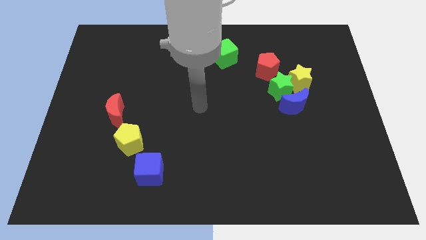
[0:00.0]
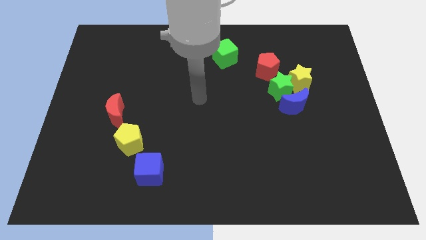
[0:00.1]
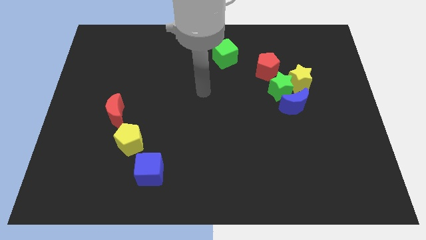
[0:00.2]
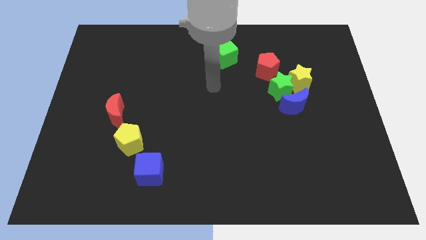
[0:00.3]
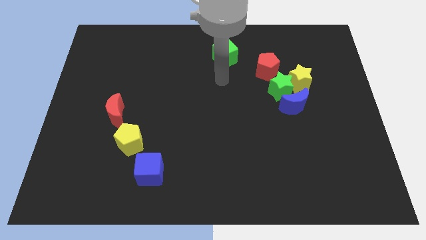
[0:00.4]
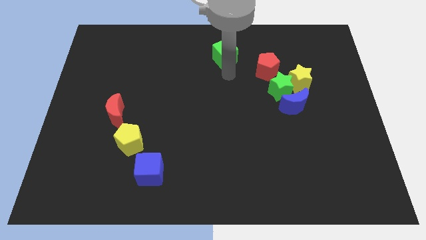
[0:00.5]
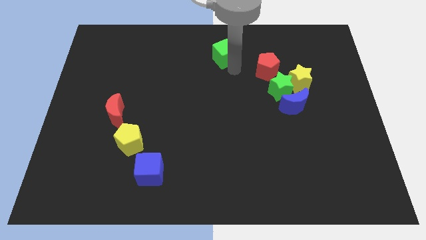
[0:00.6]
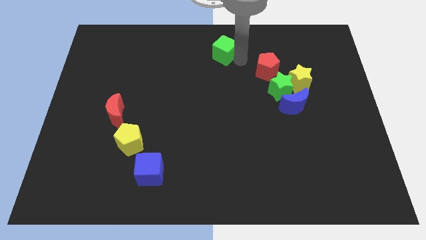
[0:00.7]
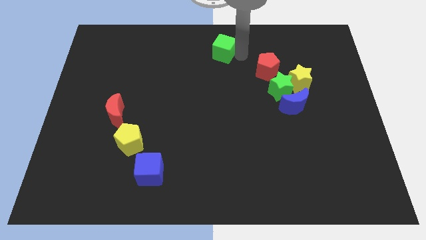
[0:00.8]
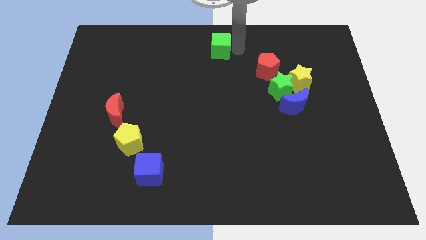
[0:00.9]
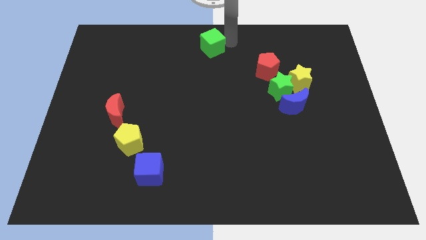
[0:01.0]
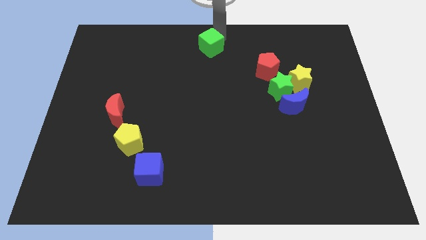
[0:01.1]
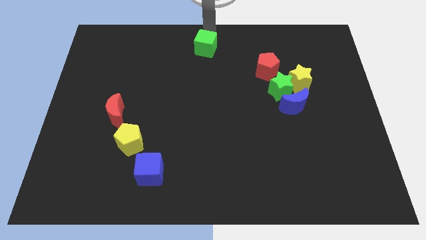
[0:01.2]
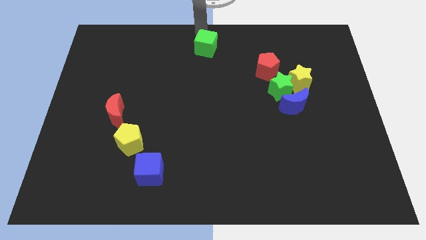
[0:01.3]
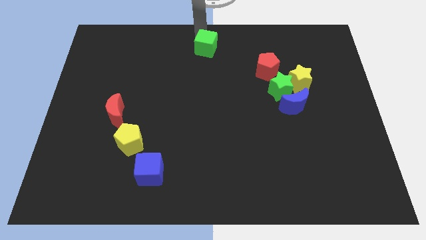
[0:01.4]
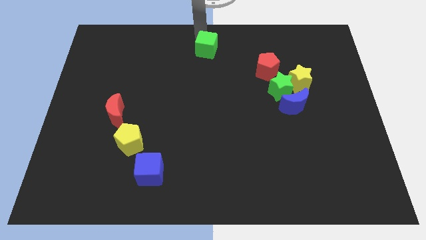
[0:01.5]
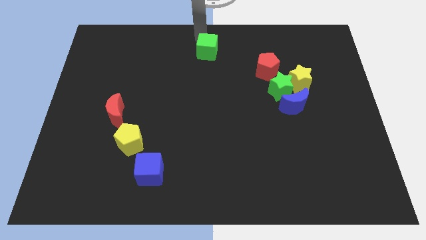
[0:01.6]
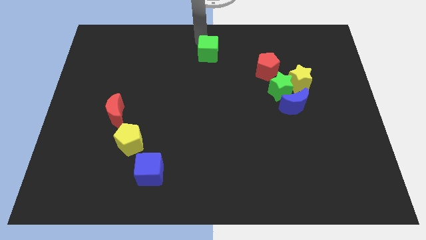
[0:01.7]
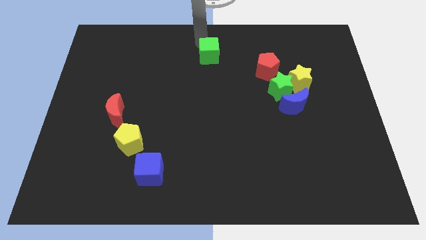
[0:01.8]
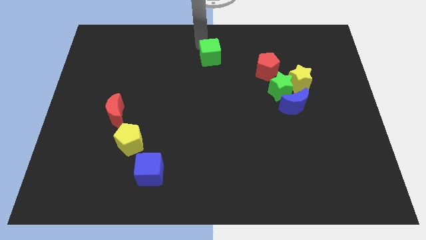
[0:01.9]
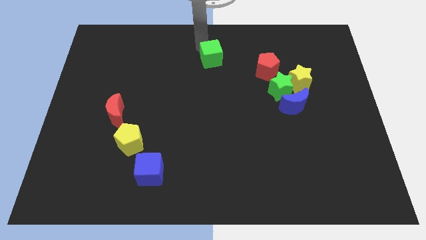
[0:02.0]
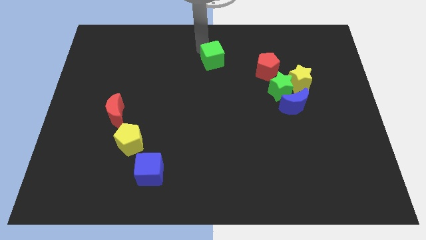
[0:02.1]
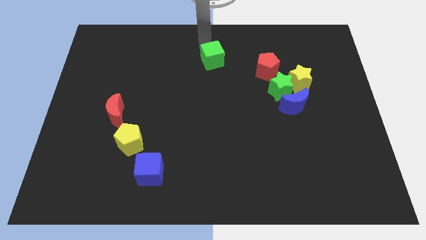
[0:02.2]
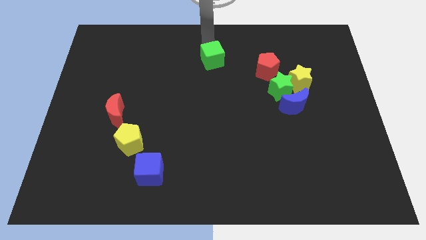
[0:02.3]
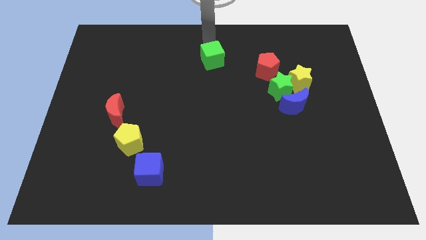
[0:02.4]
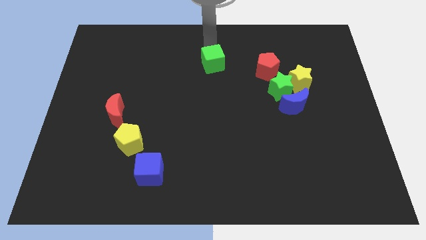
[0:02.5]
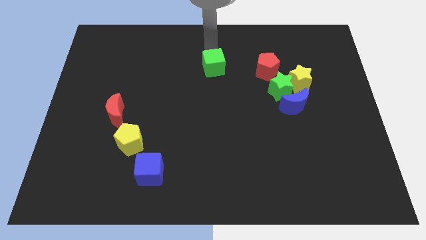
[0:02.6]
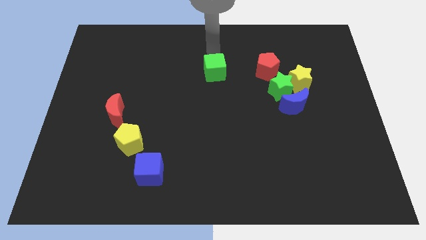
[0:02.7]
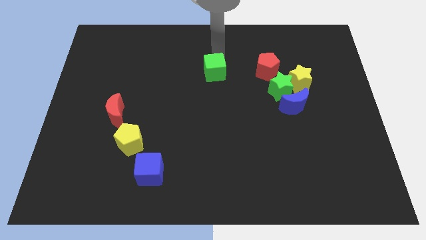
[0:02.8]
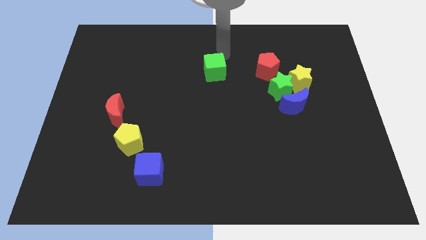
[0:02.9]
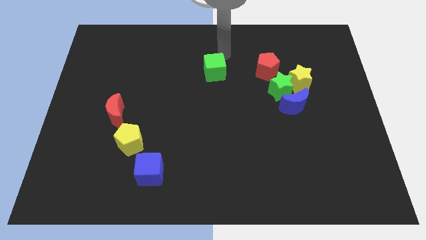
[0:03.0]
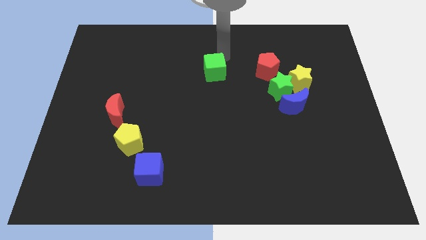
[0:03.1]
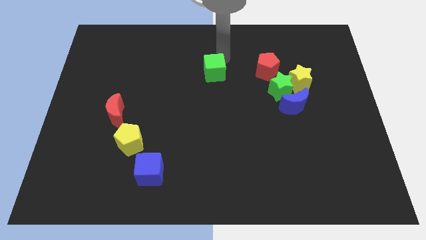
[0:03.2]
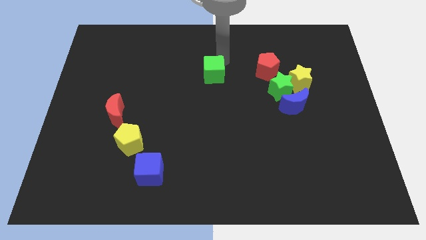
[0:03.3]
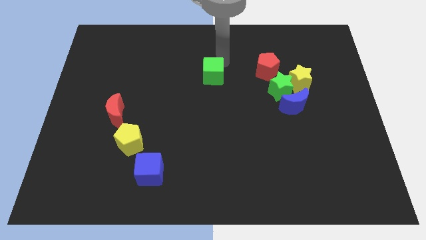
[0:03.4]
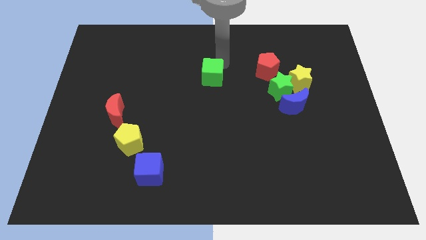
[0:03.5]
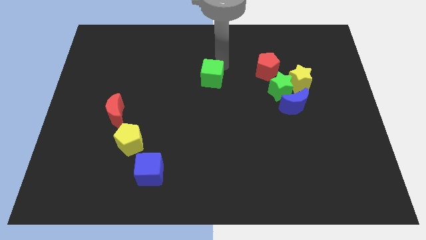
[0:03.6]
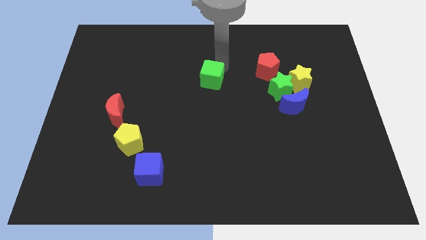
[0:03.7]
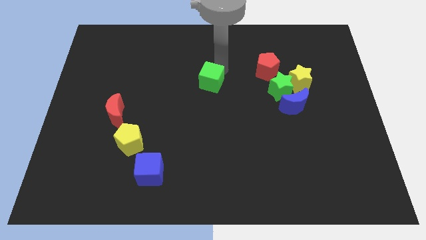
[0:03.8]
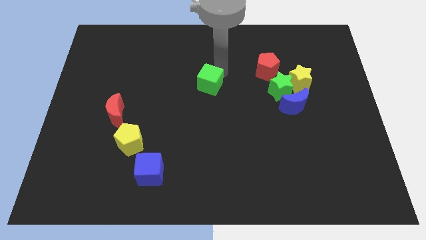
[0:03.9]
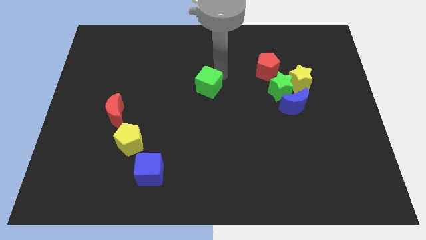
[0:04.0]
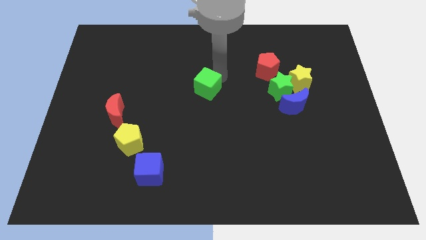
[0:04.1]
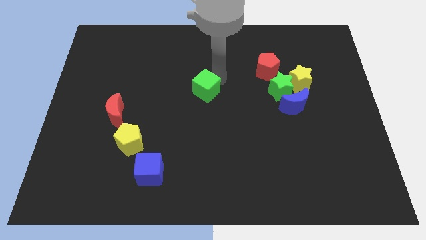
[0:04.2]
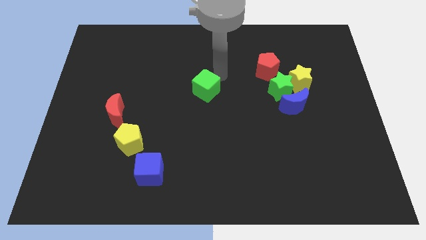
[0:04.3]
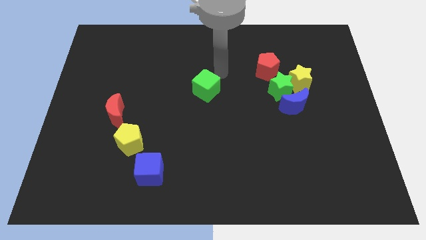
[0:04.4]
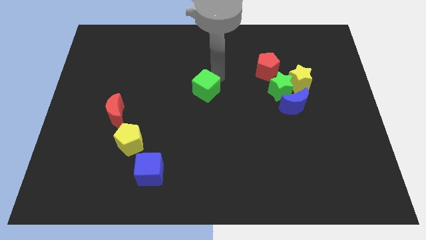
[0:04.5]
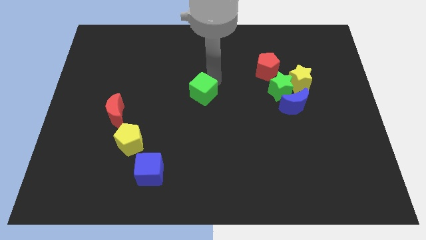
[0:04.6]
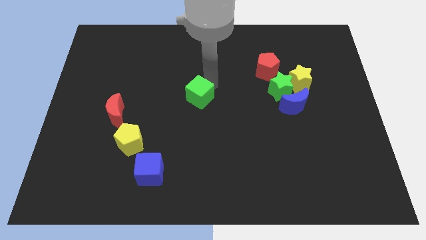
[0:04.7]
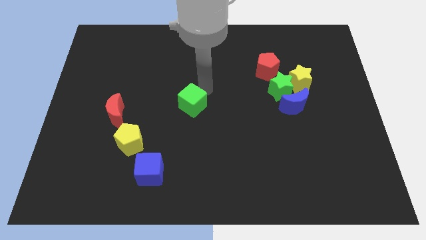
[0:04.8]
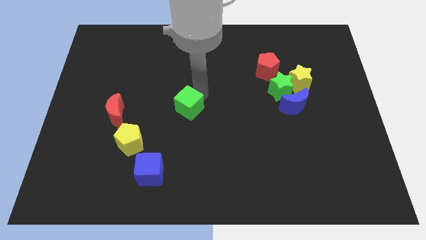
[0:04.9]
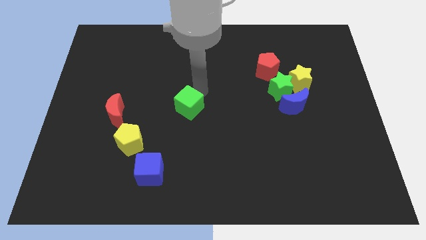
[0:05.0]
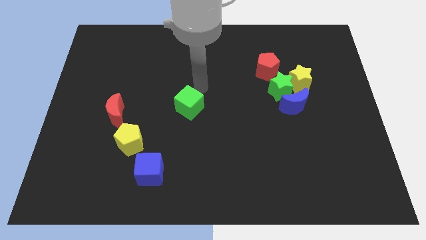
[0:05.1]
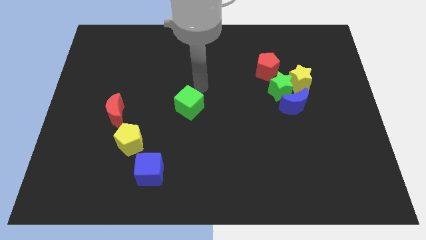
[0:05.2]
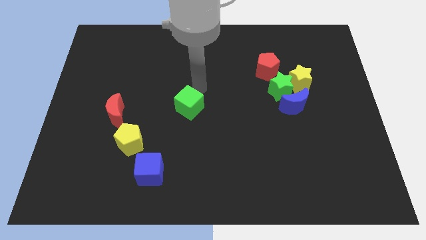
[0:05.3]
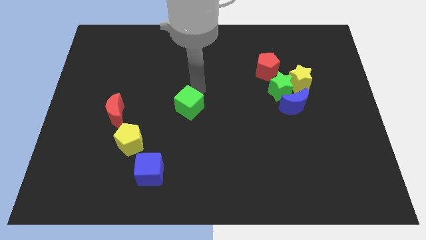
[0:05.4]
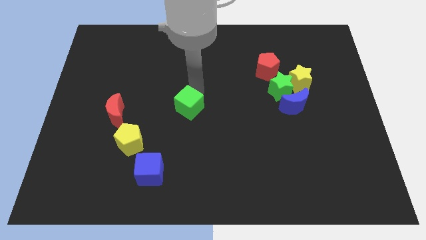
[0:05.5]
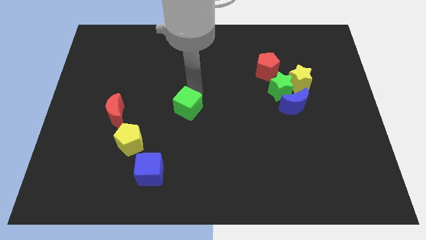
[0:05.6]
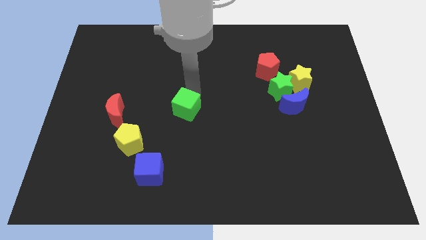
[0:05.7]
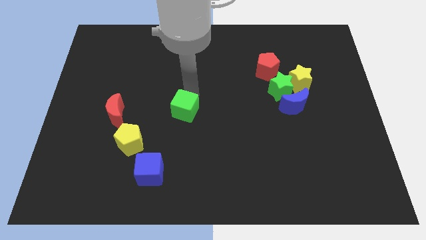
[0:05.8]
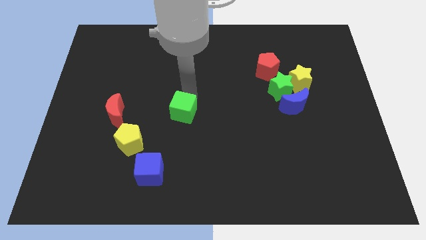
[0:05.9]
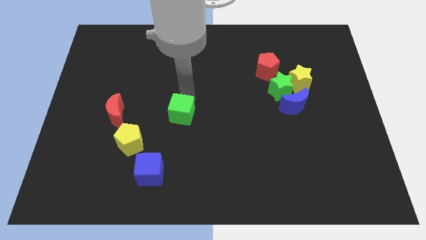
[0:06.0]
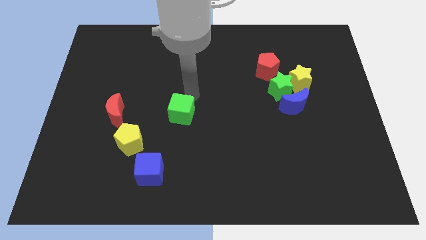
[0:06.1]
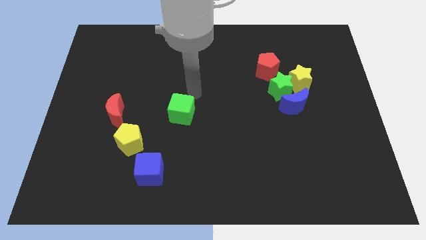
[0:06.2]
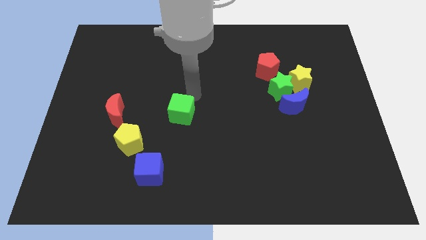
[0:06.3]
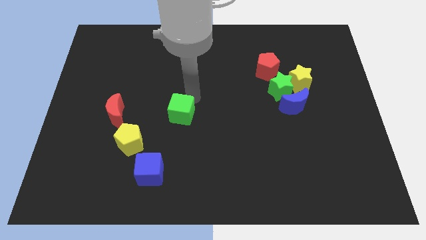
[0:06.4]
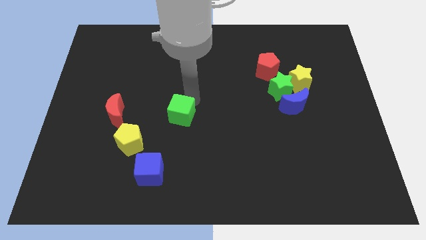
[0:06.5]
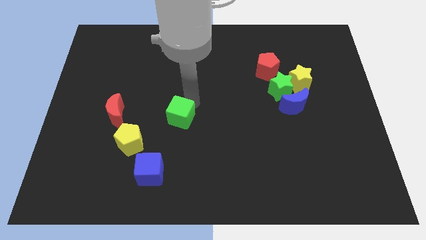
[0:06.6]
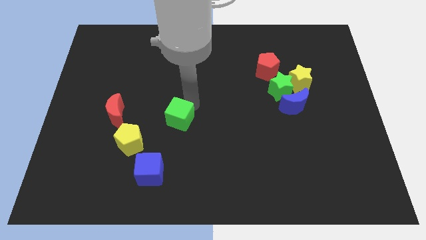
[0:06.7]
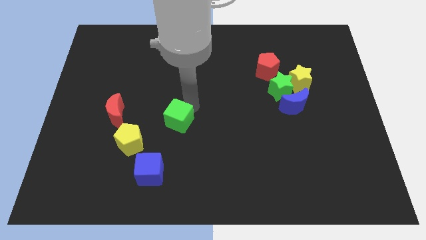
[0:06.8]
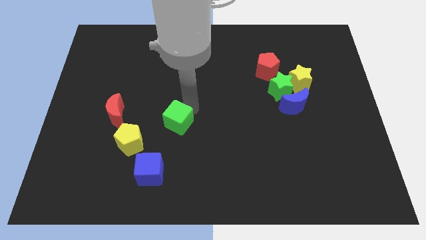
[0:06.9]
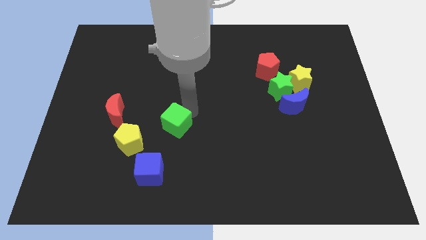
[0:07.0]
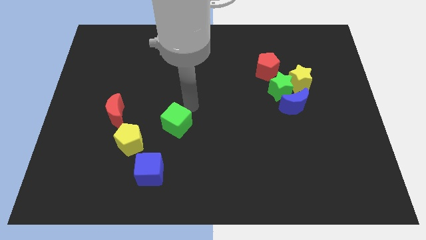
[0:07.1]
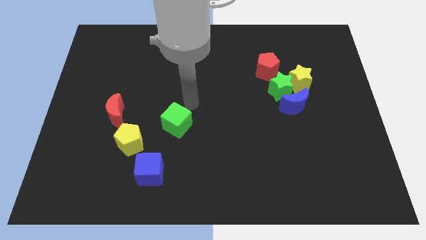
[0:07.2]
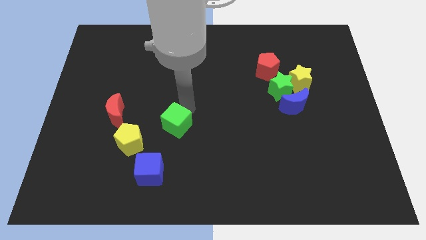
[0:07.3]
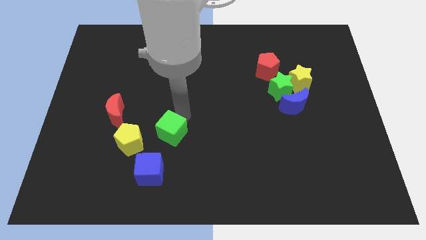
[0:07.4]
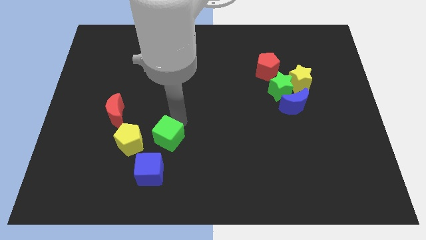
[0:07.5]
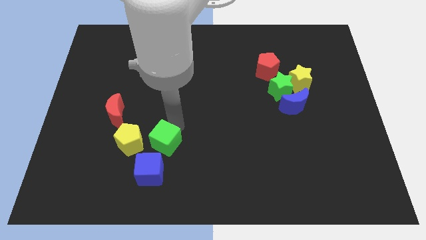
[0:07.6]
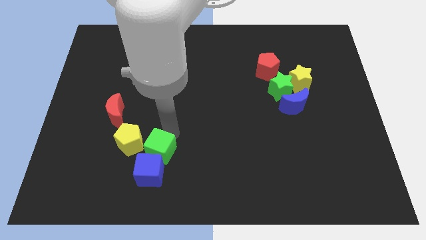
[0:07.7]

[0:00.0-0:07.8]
push the green cube towards the blue cube
